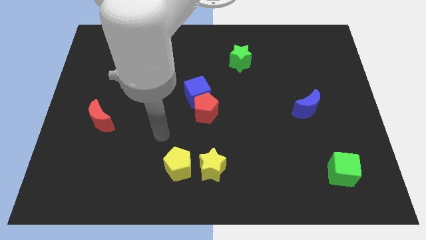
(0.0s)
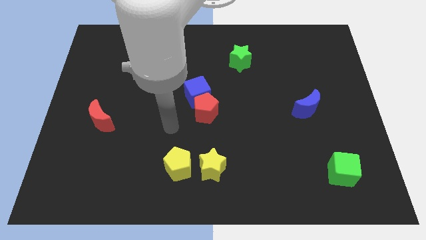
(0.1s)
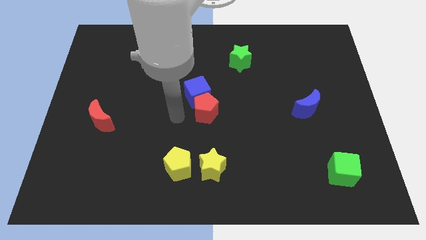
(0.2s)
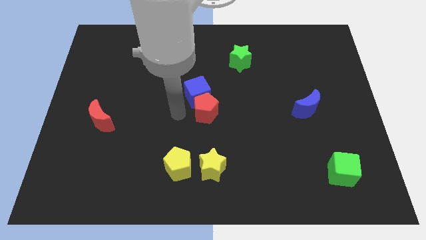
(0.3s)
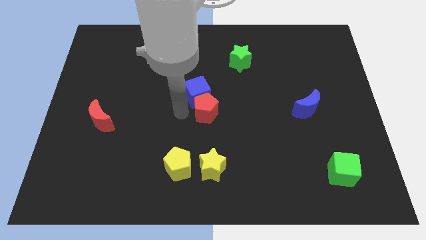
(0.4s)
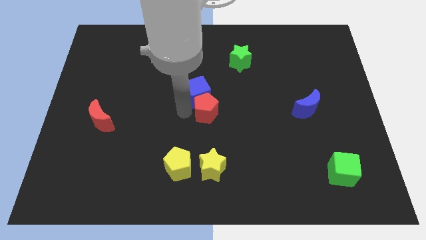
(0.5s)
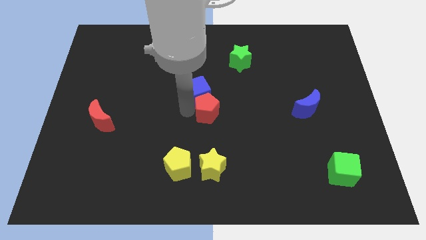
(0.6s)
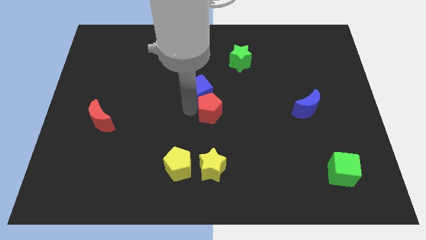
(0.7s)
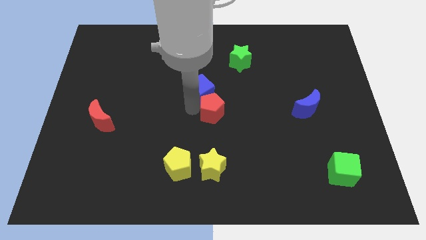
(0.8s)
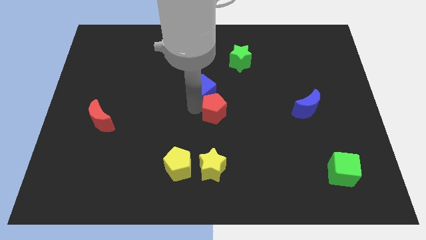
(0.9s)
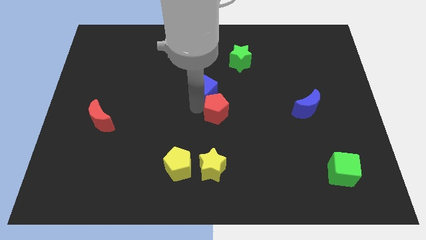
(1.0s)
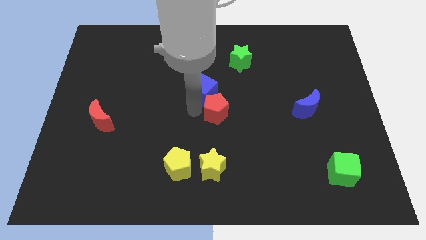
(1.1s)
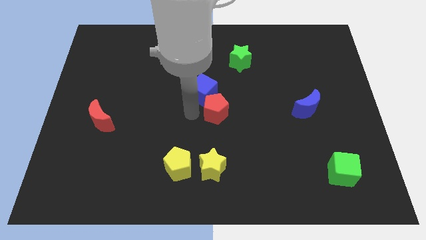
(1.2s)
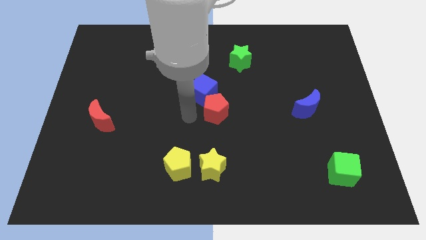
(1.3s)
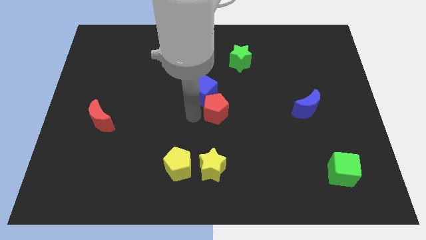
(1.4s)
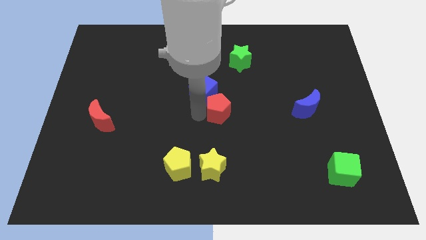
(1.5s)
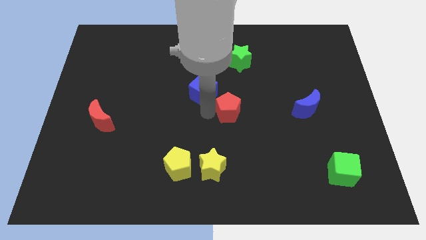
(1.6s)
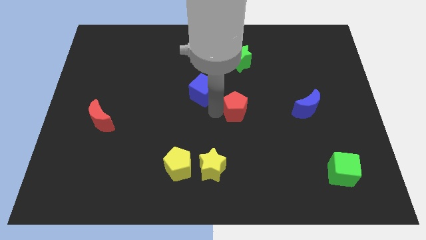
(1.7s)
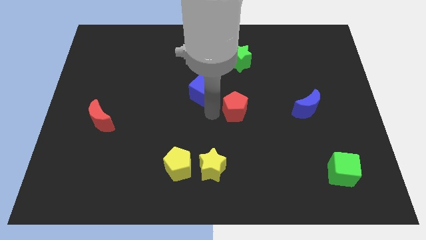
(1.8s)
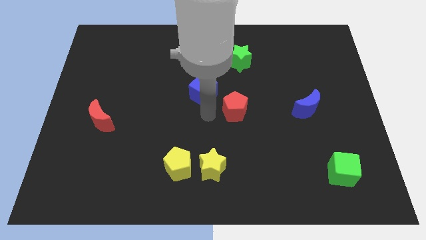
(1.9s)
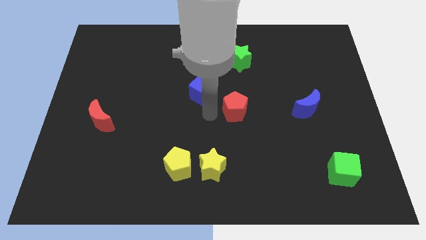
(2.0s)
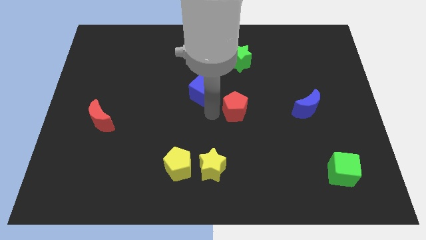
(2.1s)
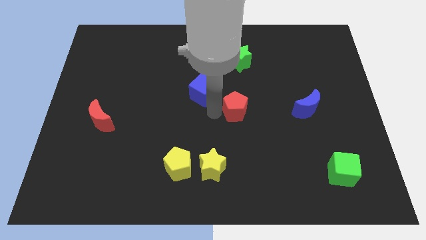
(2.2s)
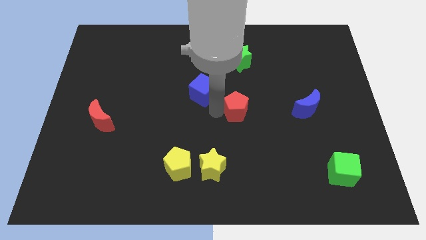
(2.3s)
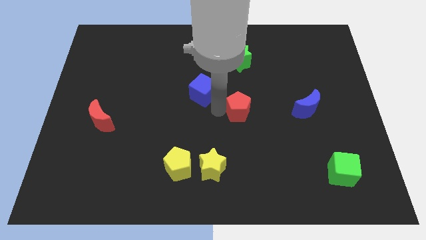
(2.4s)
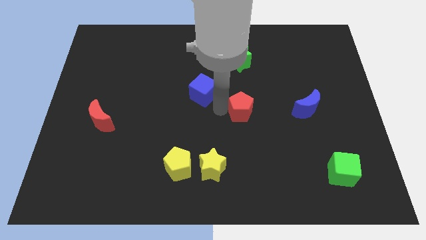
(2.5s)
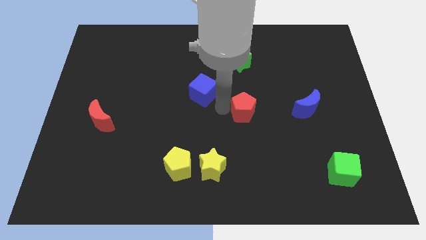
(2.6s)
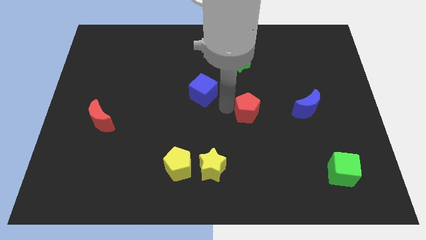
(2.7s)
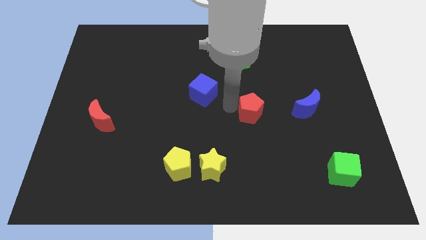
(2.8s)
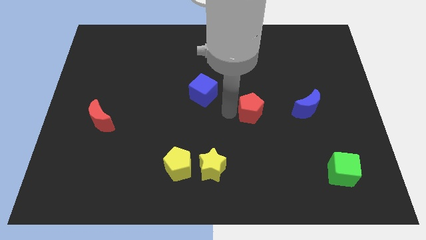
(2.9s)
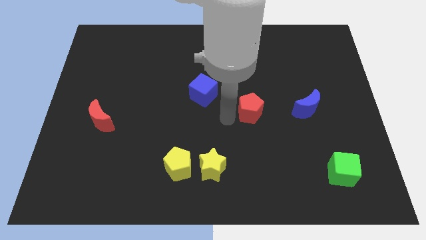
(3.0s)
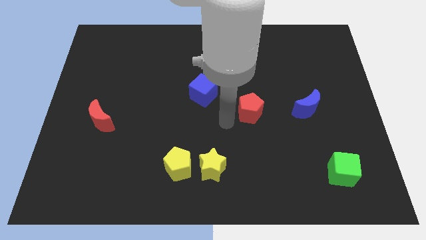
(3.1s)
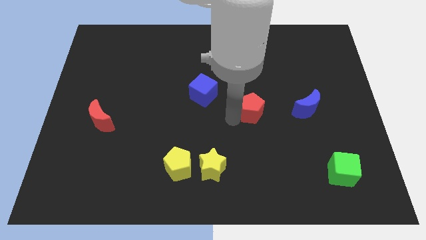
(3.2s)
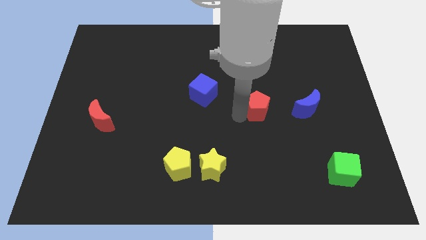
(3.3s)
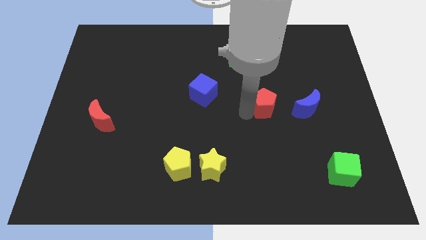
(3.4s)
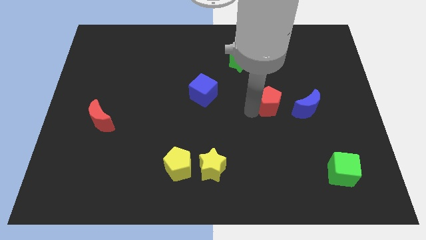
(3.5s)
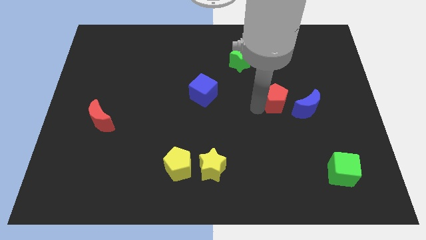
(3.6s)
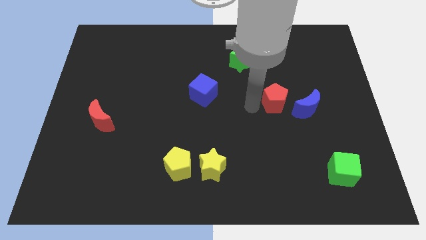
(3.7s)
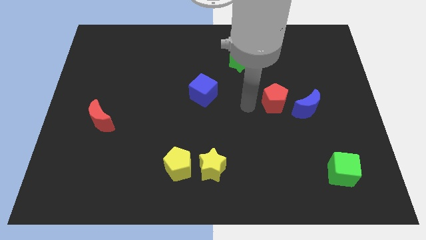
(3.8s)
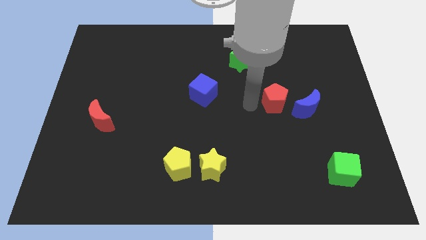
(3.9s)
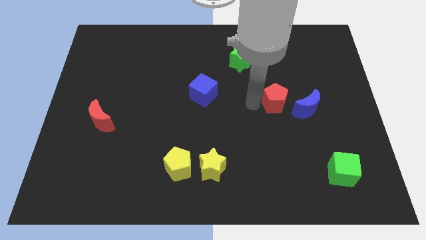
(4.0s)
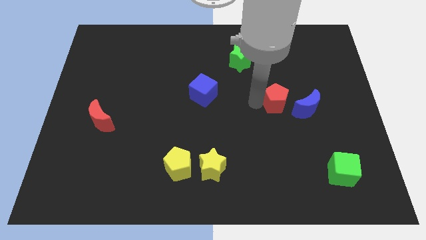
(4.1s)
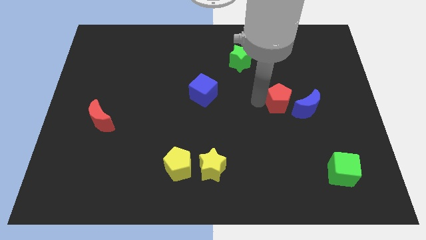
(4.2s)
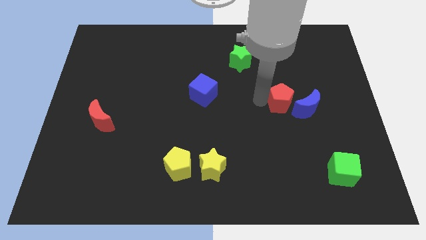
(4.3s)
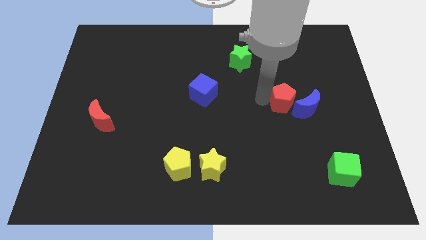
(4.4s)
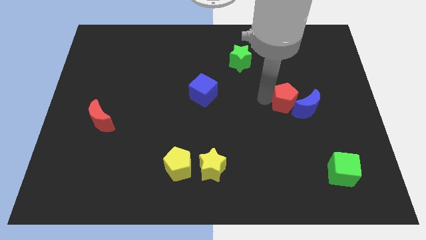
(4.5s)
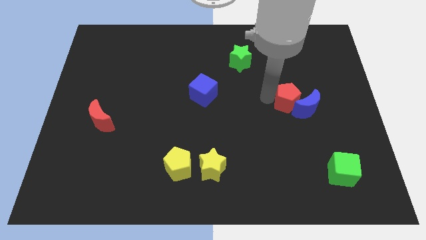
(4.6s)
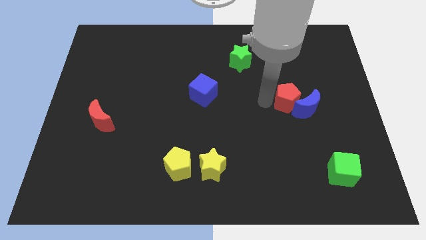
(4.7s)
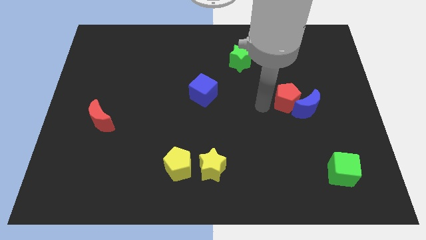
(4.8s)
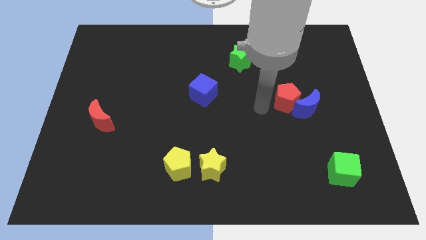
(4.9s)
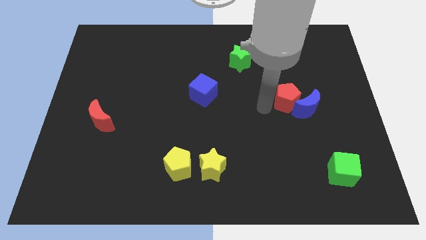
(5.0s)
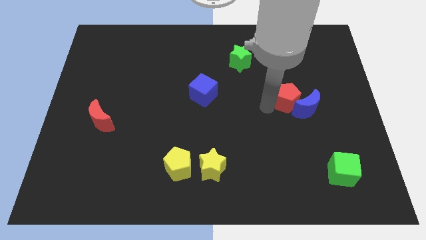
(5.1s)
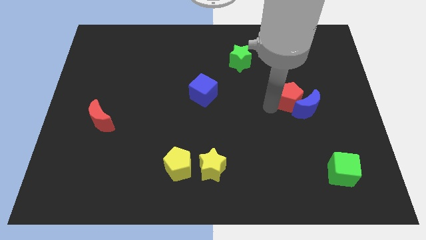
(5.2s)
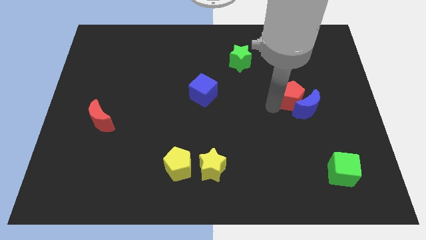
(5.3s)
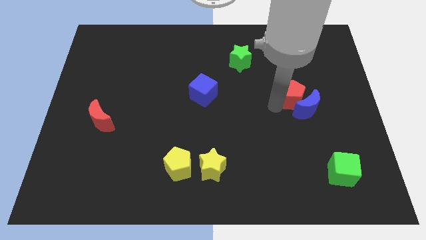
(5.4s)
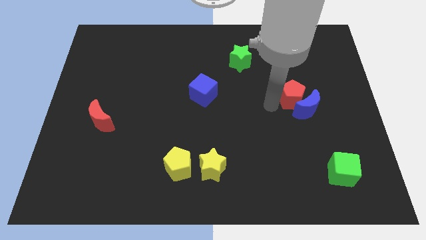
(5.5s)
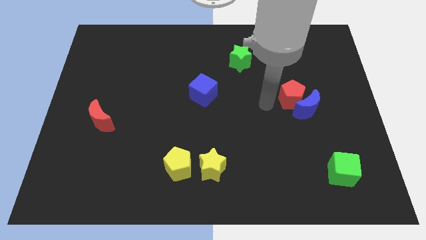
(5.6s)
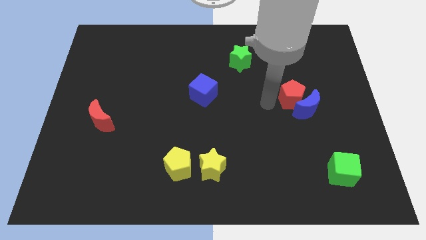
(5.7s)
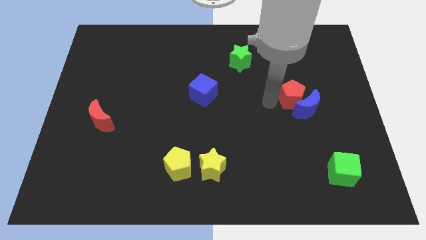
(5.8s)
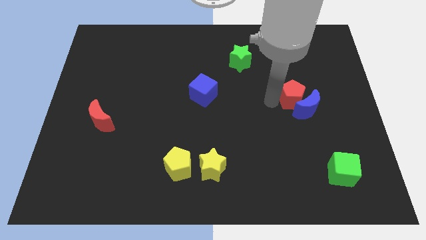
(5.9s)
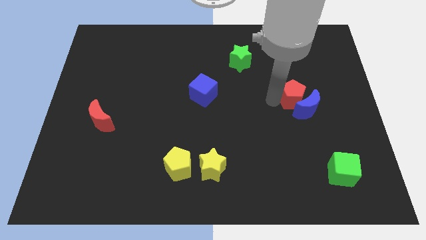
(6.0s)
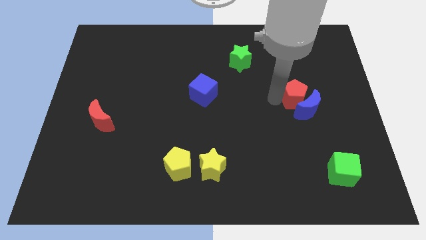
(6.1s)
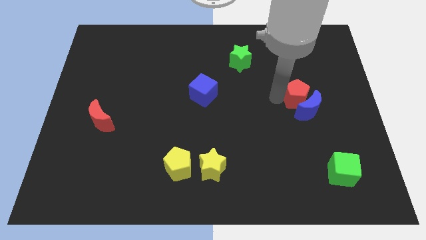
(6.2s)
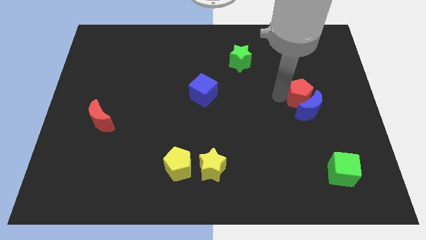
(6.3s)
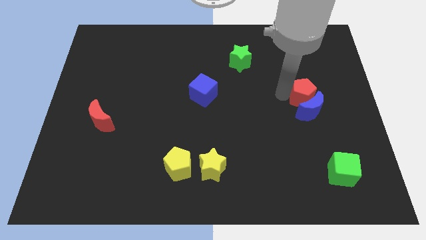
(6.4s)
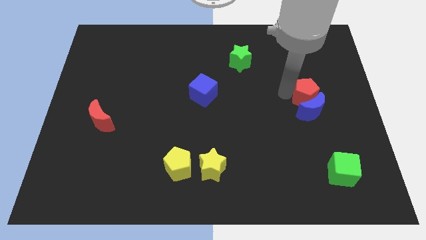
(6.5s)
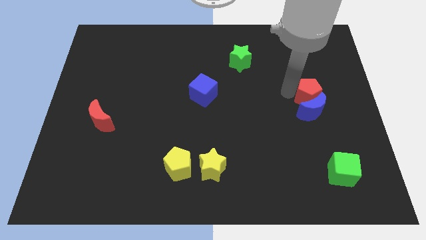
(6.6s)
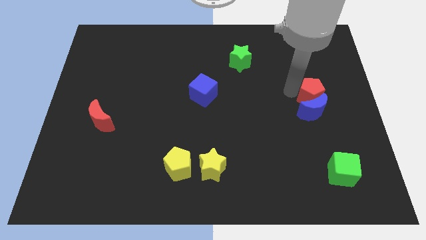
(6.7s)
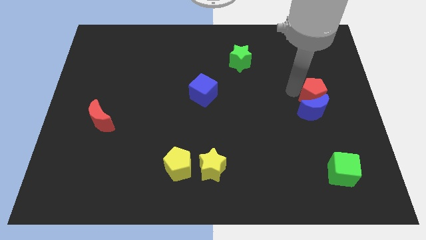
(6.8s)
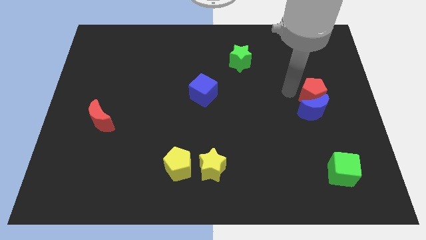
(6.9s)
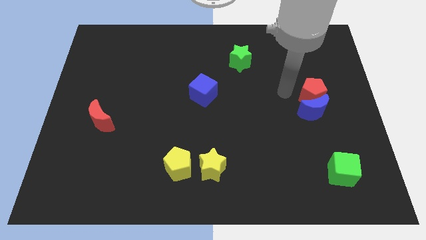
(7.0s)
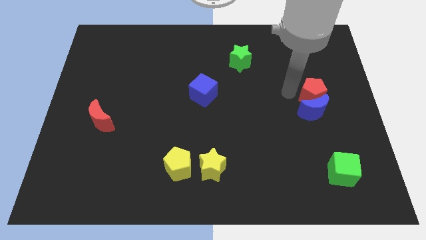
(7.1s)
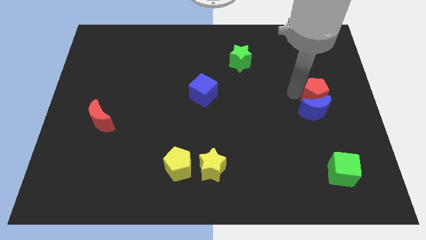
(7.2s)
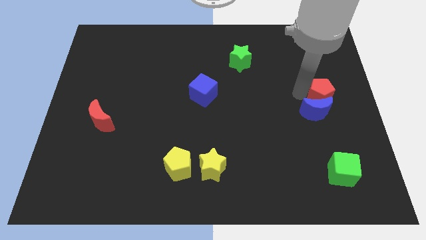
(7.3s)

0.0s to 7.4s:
put the red pentagon to the right side
